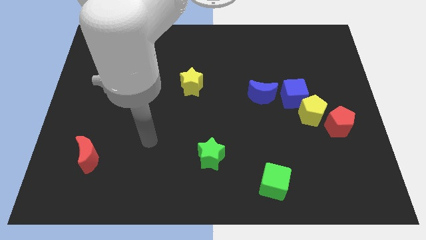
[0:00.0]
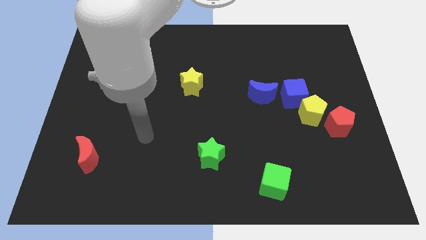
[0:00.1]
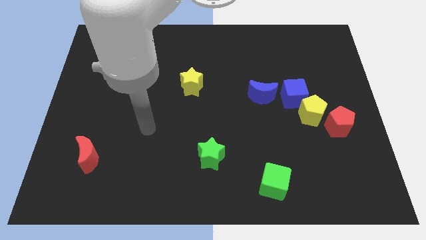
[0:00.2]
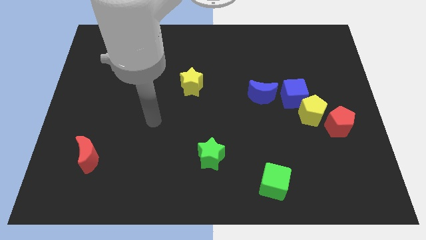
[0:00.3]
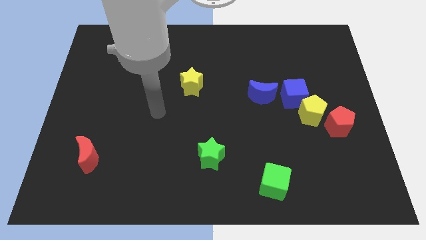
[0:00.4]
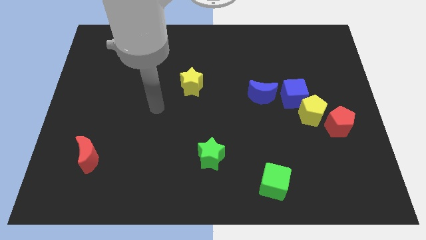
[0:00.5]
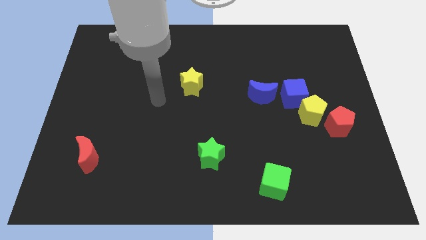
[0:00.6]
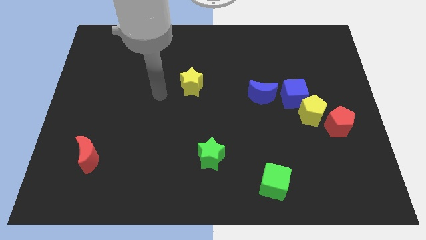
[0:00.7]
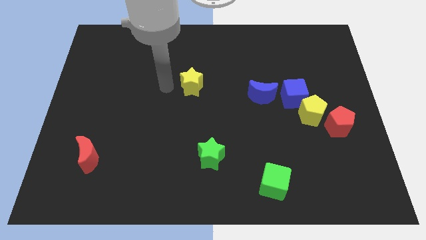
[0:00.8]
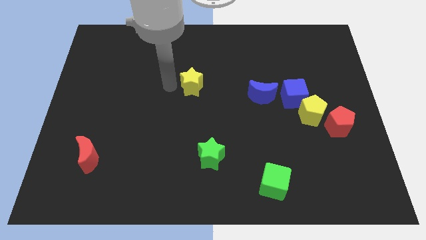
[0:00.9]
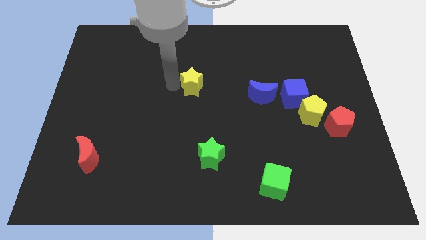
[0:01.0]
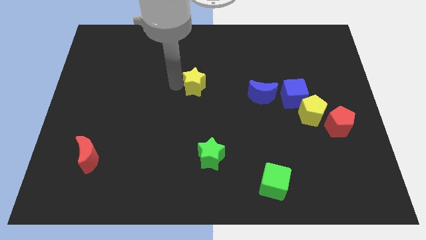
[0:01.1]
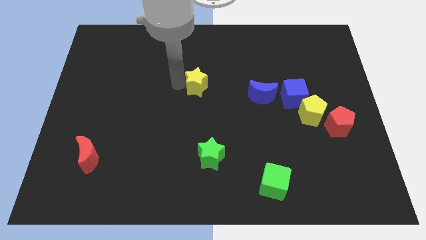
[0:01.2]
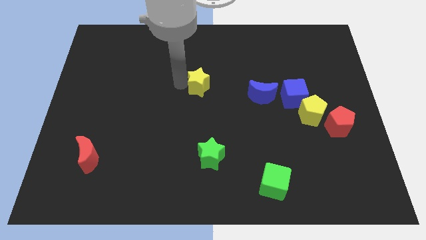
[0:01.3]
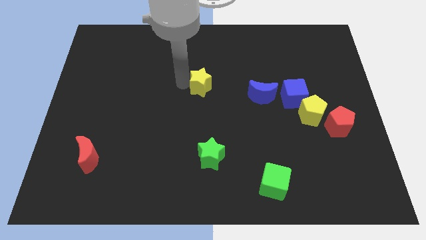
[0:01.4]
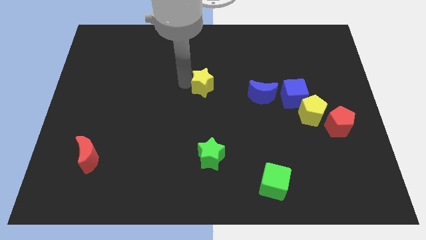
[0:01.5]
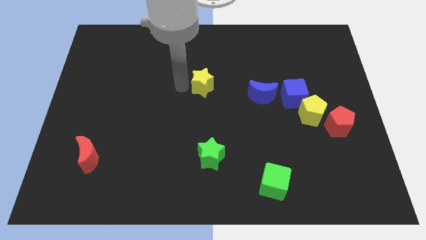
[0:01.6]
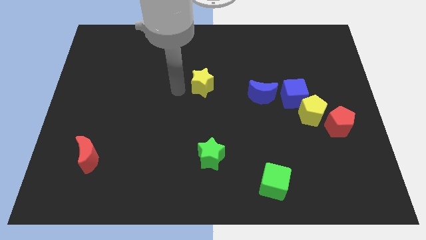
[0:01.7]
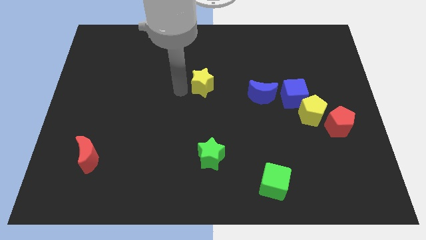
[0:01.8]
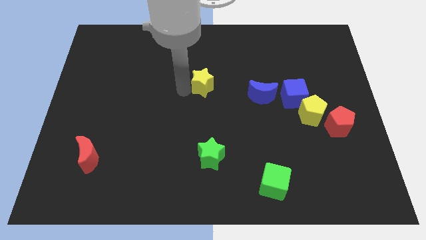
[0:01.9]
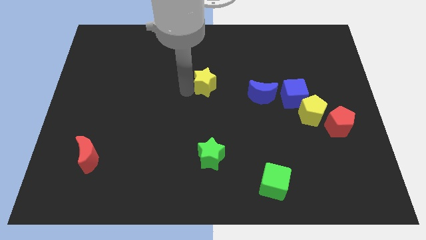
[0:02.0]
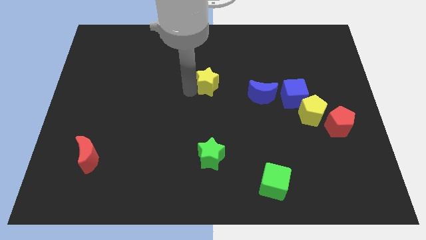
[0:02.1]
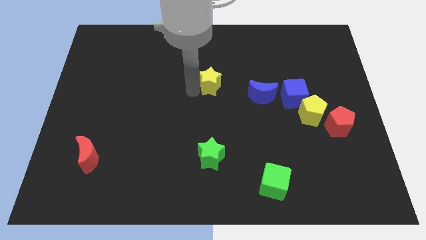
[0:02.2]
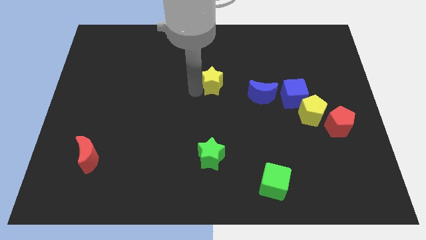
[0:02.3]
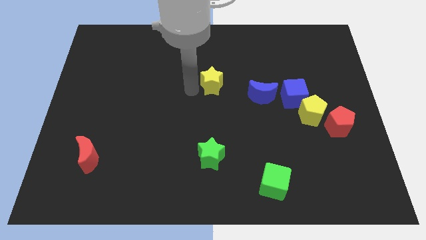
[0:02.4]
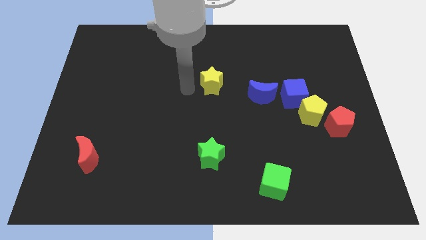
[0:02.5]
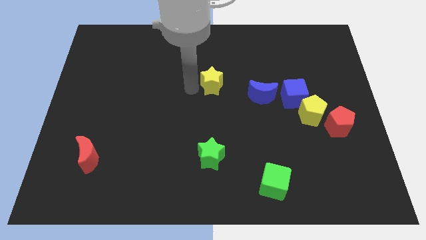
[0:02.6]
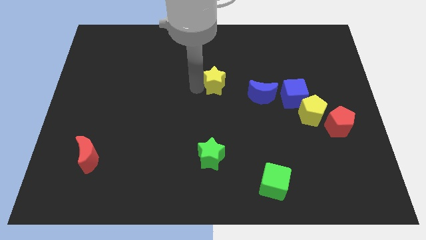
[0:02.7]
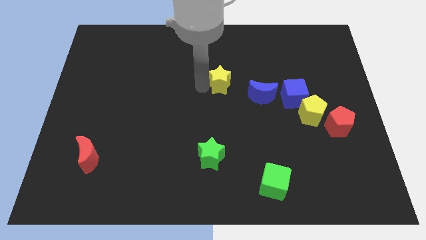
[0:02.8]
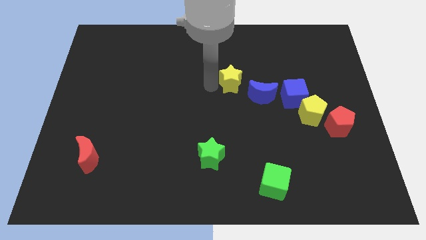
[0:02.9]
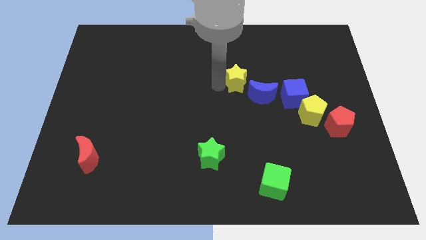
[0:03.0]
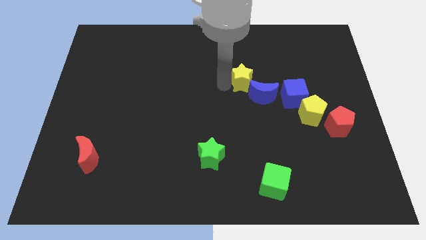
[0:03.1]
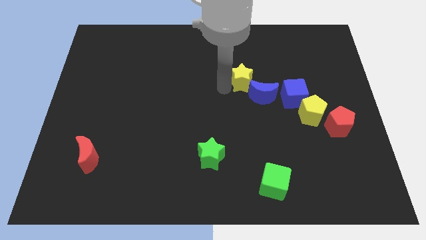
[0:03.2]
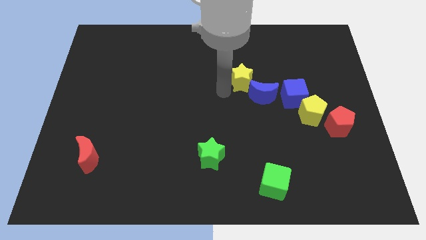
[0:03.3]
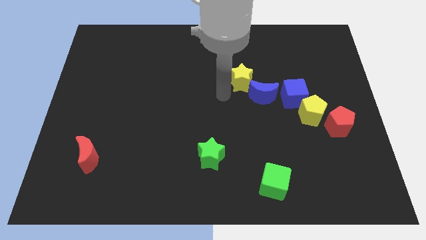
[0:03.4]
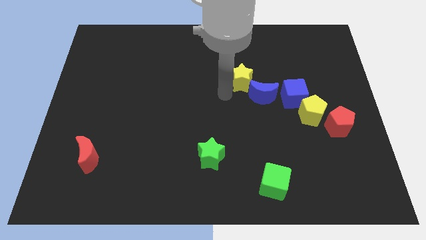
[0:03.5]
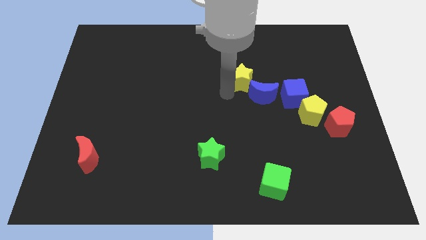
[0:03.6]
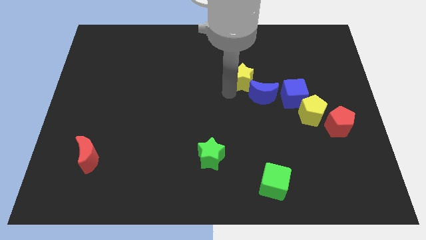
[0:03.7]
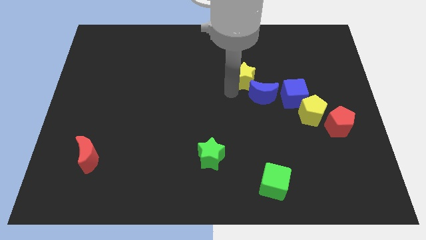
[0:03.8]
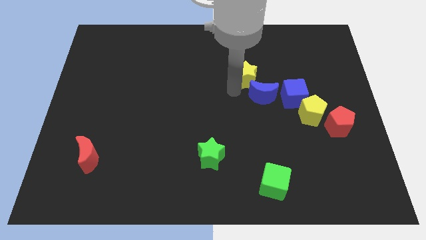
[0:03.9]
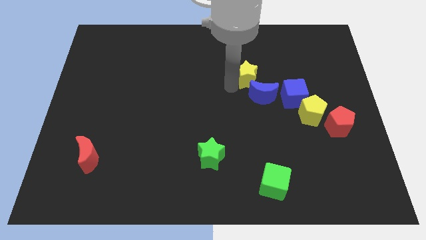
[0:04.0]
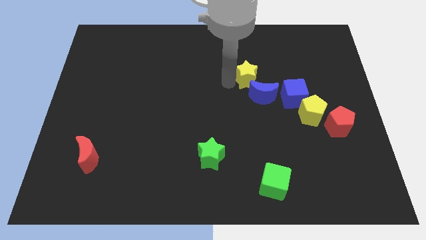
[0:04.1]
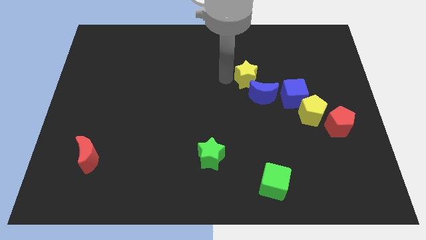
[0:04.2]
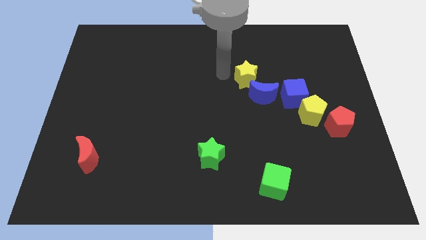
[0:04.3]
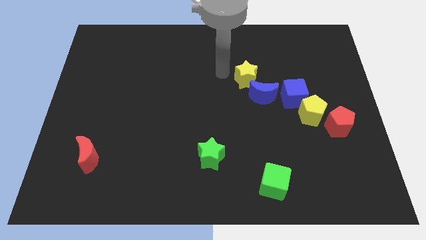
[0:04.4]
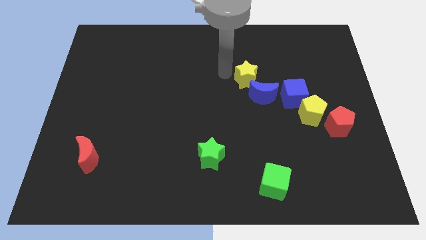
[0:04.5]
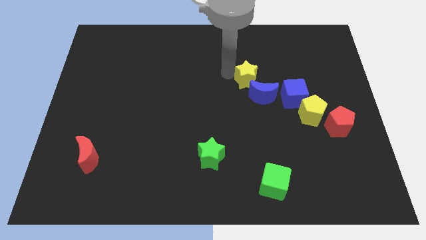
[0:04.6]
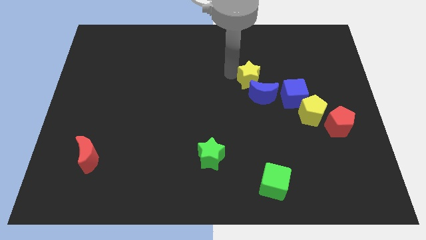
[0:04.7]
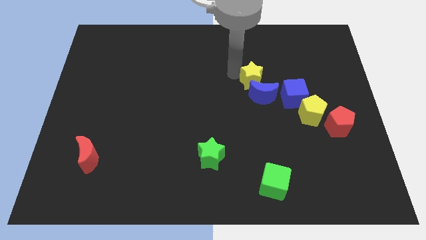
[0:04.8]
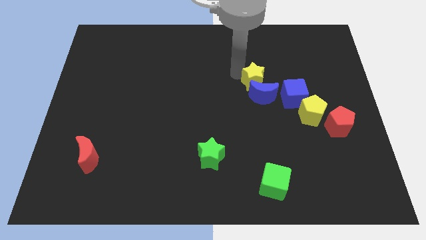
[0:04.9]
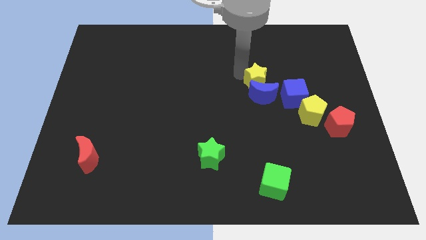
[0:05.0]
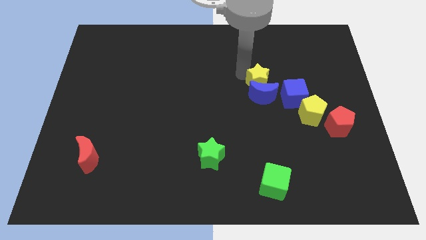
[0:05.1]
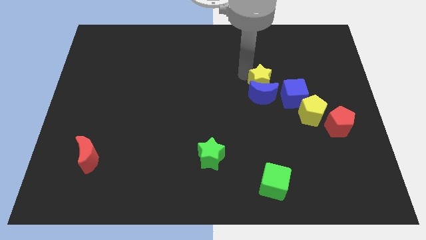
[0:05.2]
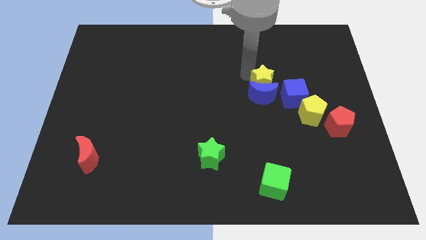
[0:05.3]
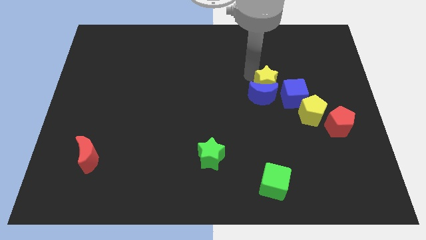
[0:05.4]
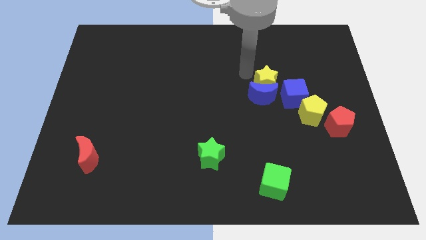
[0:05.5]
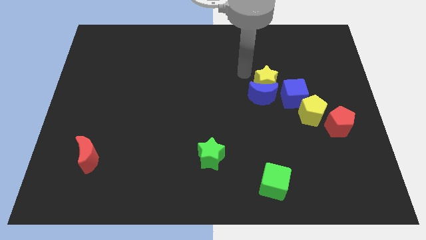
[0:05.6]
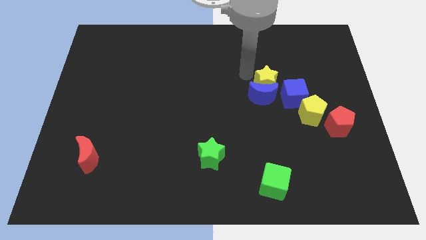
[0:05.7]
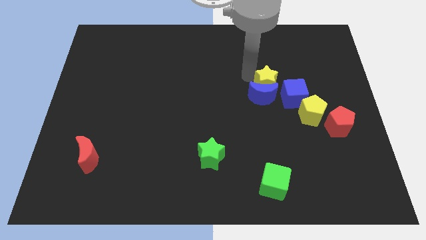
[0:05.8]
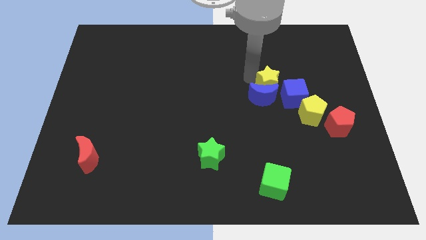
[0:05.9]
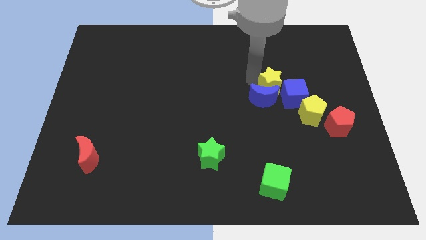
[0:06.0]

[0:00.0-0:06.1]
slide the yellow star to the blue cube

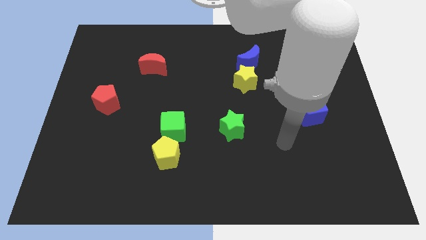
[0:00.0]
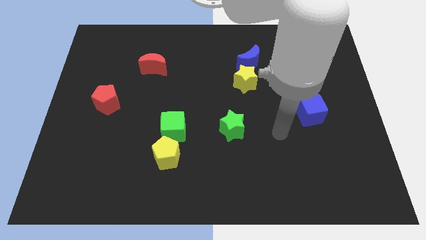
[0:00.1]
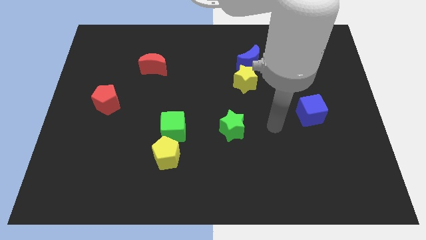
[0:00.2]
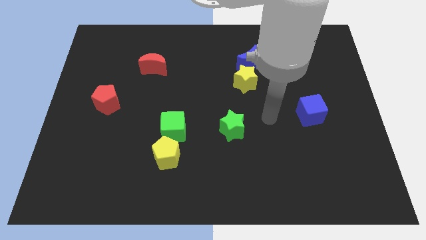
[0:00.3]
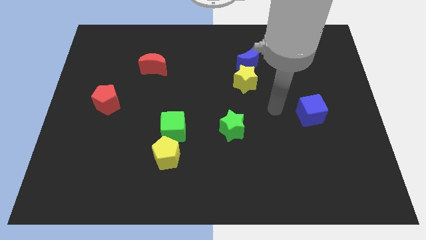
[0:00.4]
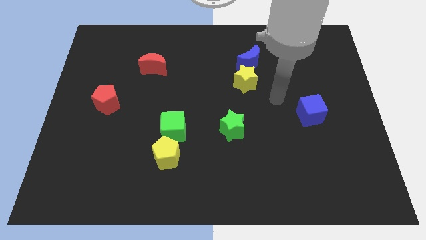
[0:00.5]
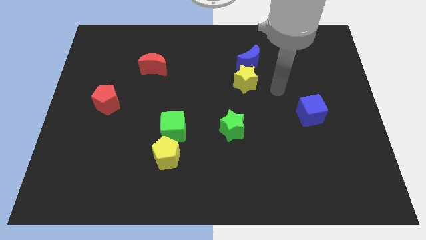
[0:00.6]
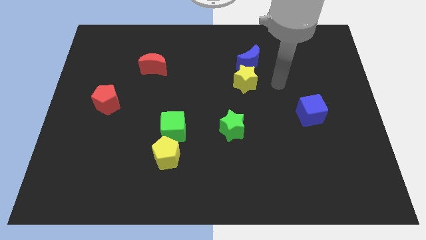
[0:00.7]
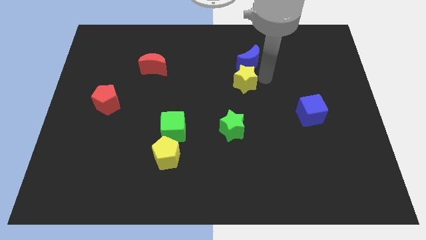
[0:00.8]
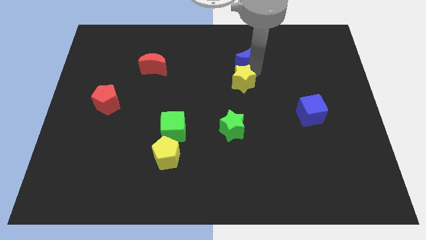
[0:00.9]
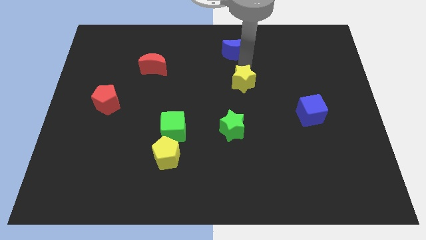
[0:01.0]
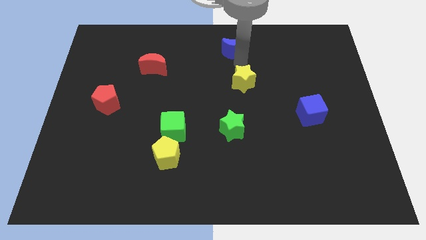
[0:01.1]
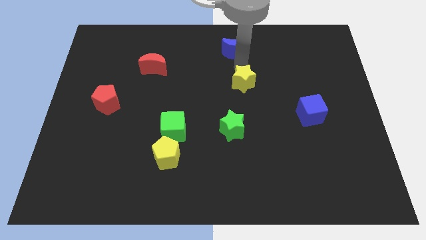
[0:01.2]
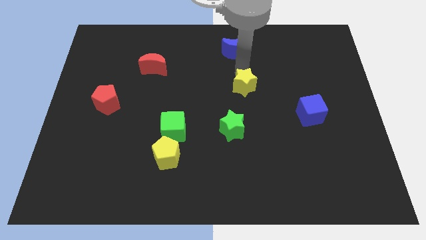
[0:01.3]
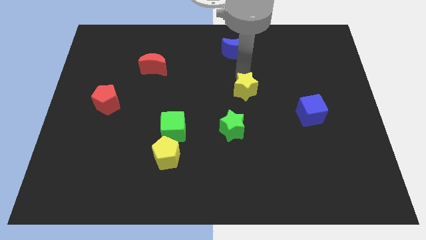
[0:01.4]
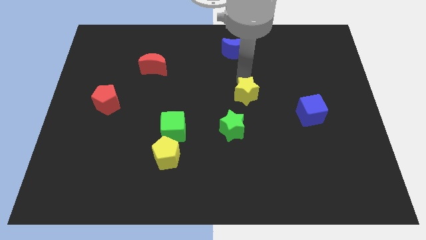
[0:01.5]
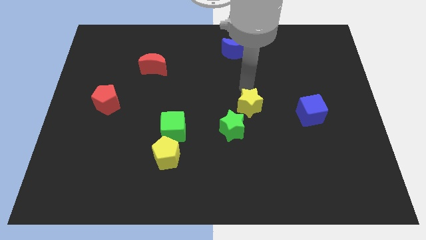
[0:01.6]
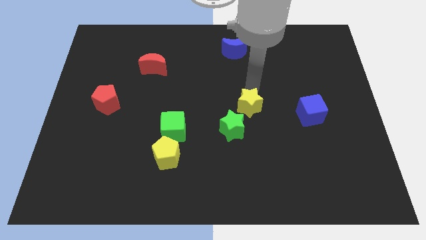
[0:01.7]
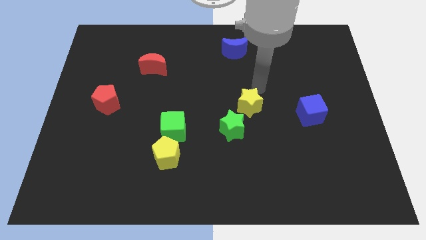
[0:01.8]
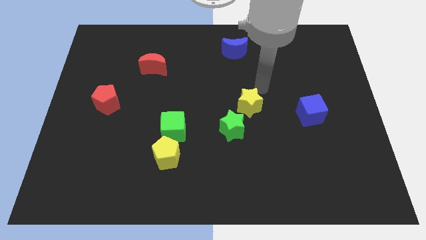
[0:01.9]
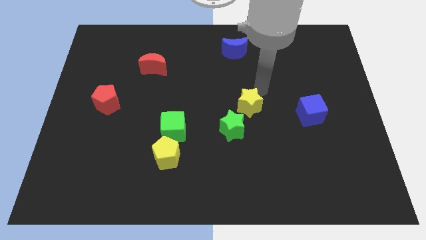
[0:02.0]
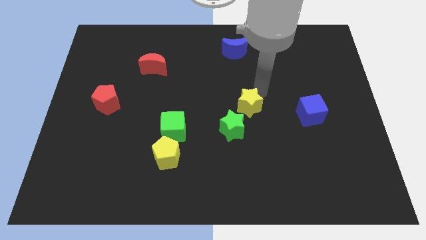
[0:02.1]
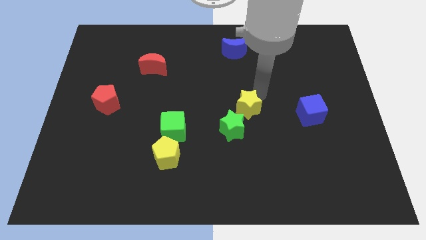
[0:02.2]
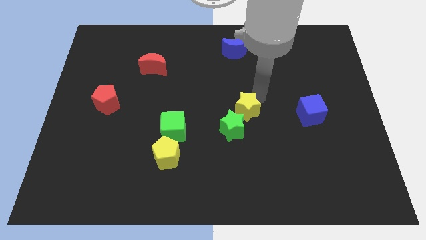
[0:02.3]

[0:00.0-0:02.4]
put the yellow star close to the green star
